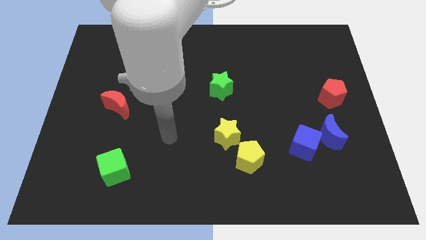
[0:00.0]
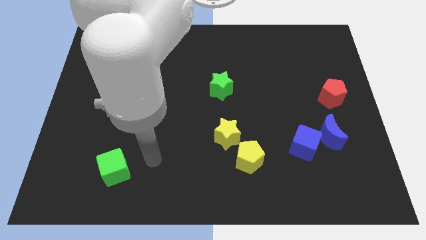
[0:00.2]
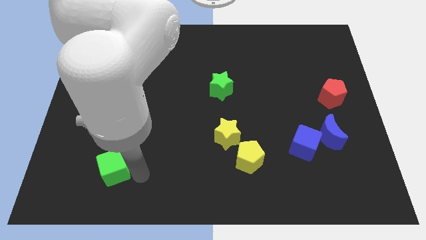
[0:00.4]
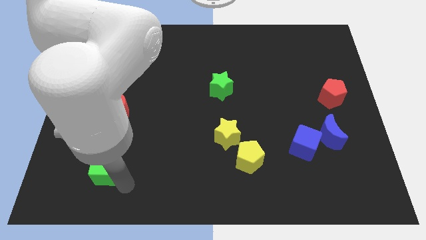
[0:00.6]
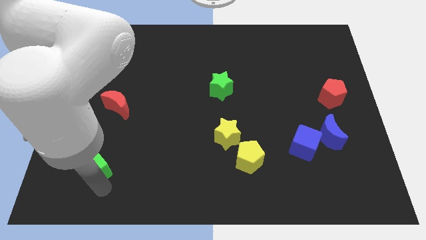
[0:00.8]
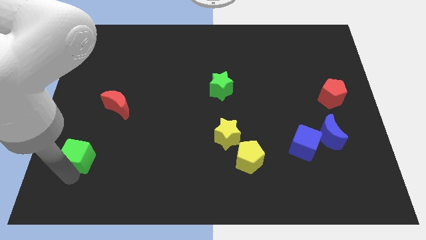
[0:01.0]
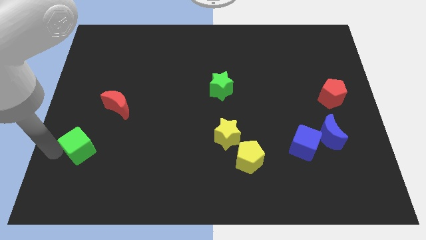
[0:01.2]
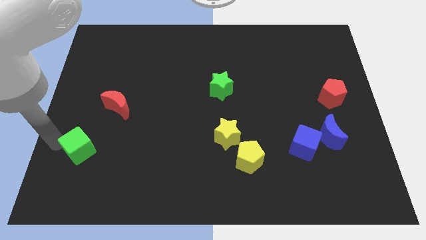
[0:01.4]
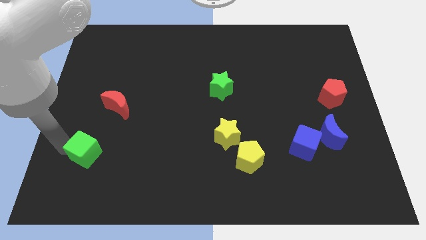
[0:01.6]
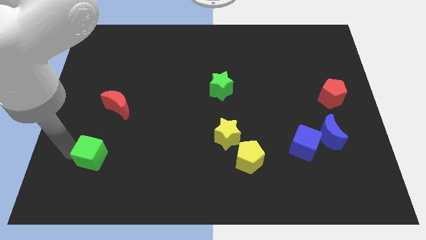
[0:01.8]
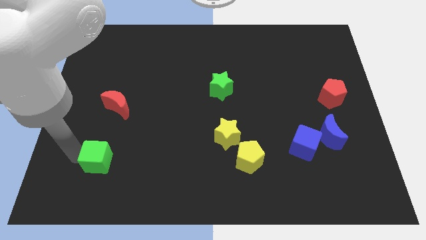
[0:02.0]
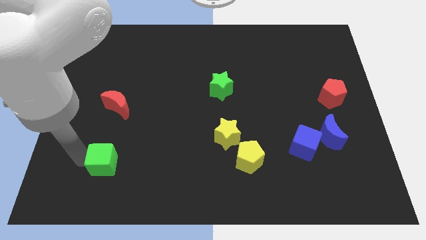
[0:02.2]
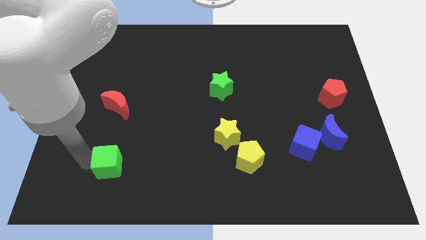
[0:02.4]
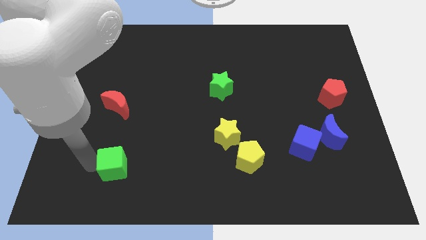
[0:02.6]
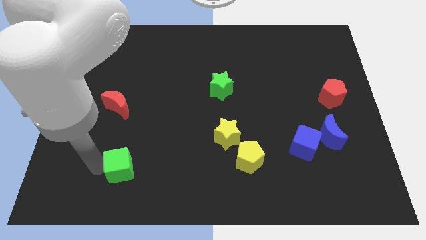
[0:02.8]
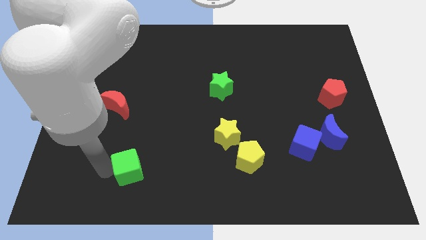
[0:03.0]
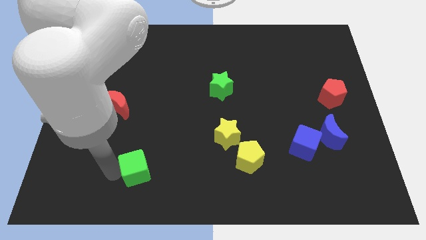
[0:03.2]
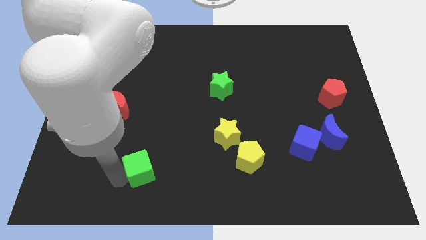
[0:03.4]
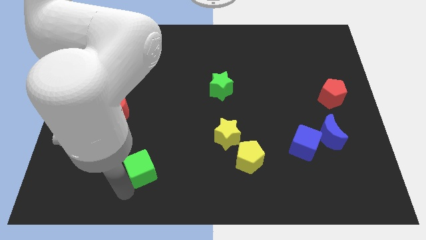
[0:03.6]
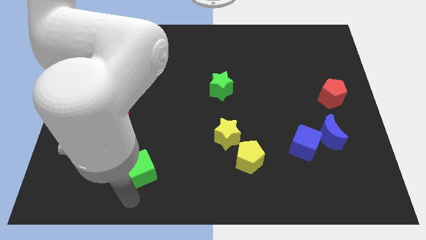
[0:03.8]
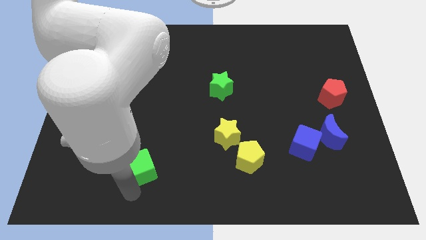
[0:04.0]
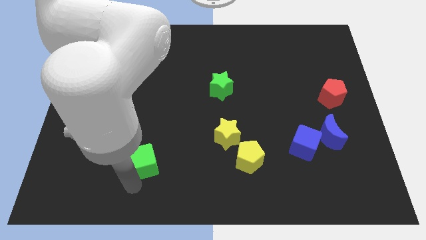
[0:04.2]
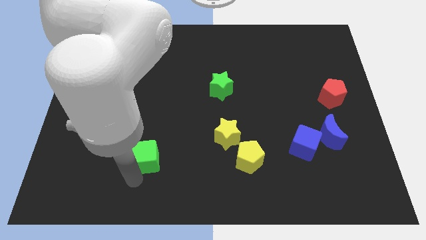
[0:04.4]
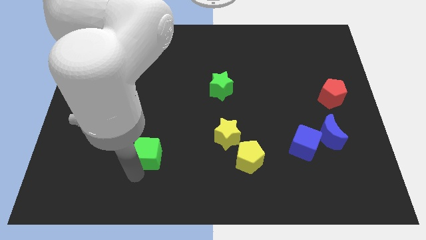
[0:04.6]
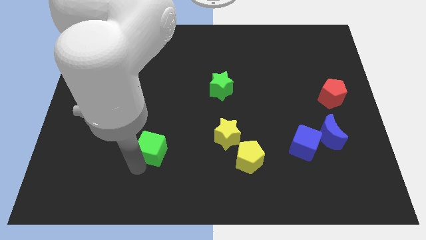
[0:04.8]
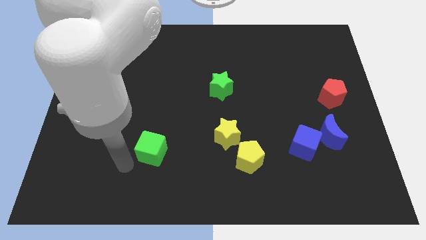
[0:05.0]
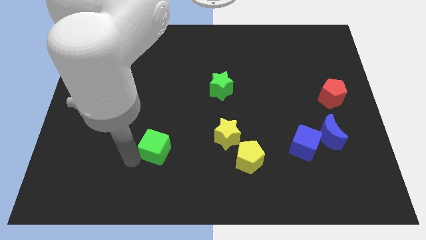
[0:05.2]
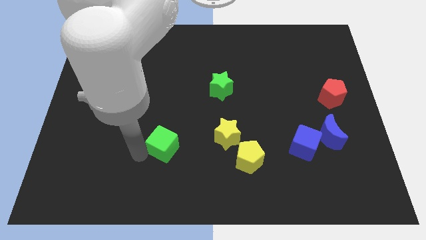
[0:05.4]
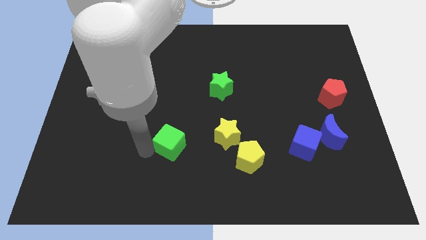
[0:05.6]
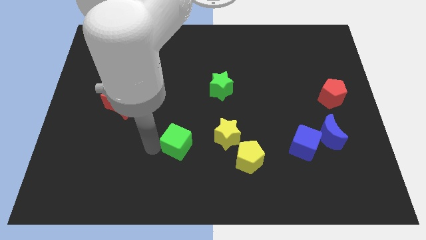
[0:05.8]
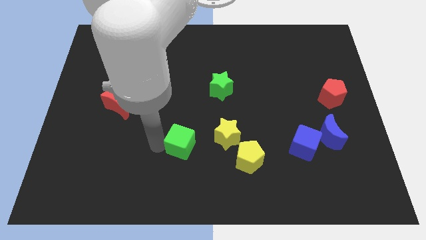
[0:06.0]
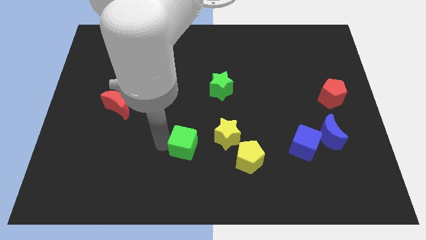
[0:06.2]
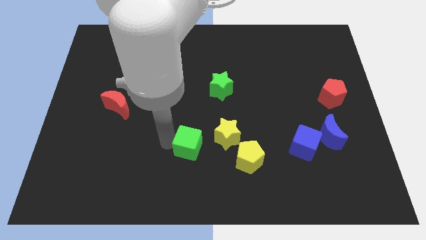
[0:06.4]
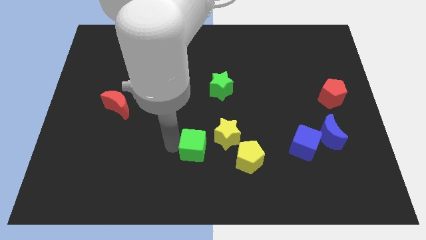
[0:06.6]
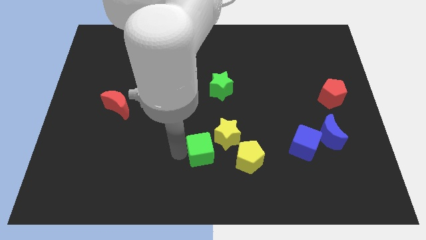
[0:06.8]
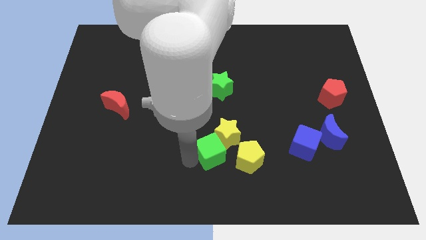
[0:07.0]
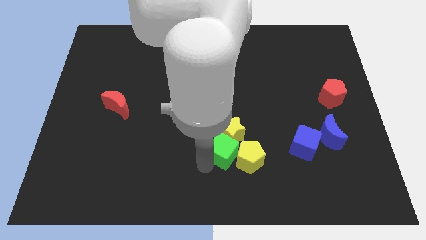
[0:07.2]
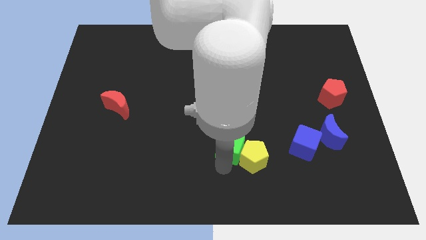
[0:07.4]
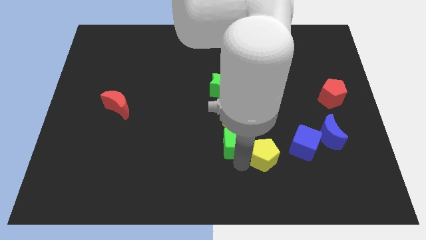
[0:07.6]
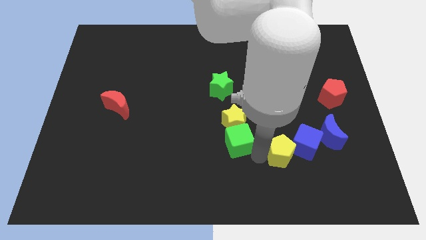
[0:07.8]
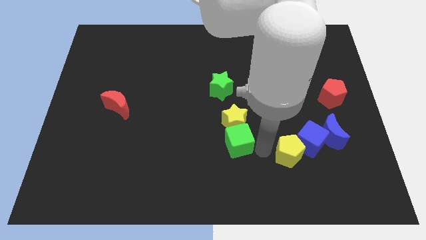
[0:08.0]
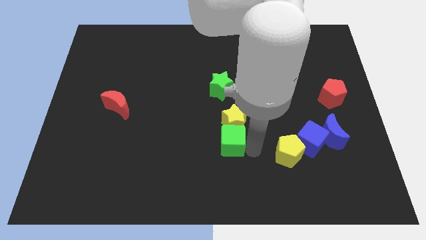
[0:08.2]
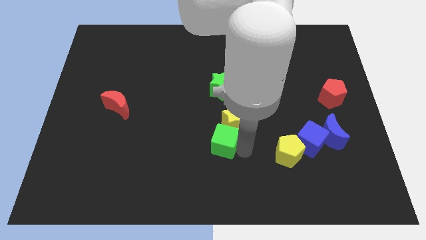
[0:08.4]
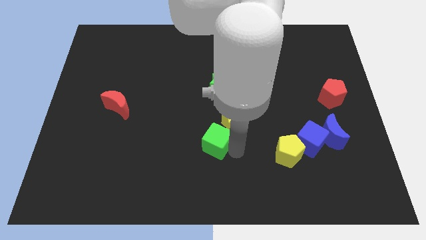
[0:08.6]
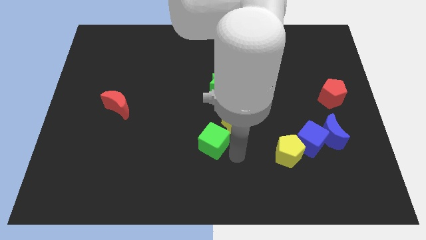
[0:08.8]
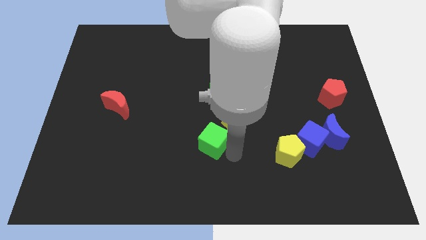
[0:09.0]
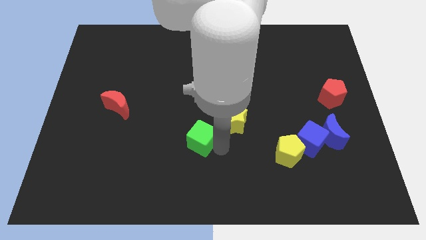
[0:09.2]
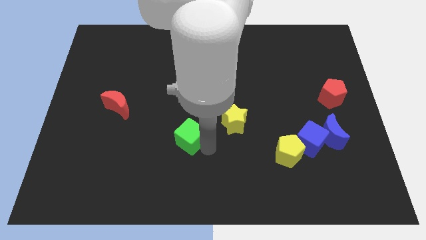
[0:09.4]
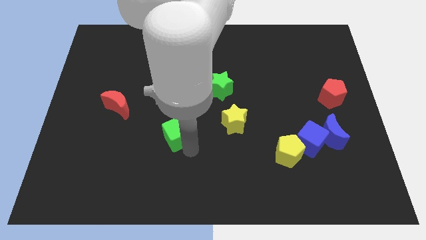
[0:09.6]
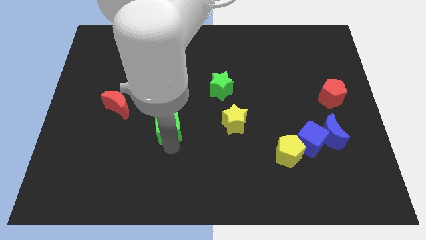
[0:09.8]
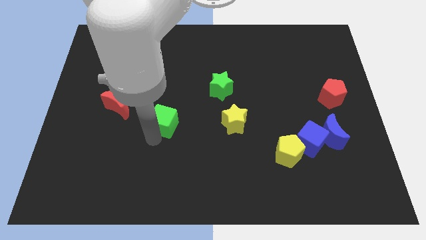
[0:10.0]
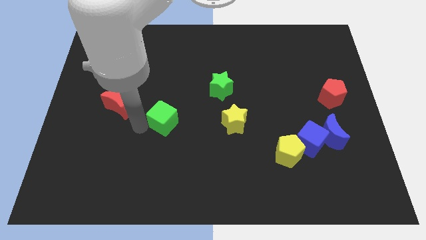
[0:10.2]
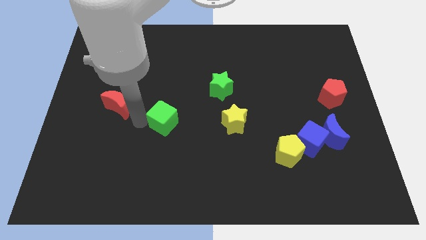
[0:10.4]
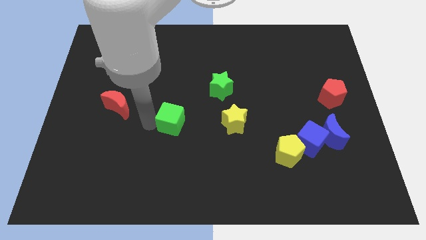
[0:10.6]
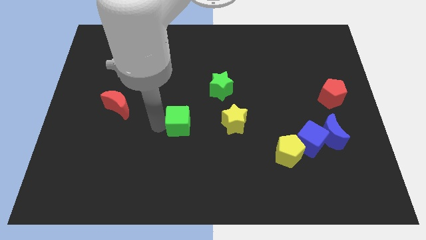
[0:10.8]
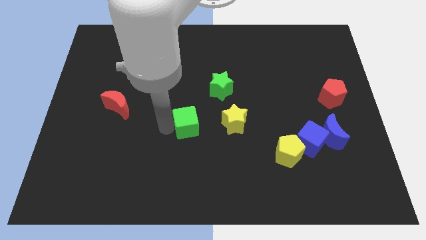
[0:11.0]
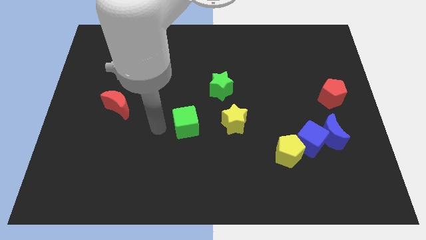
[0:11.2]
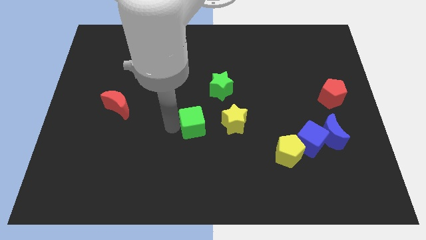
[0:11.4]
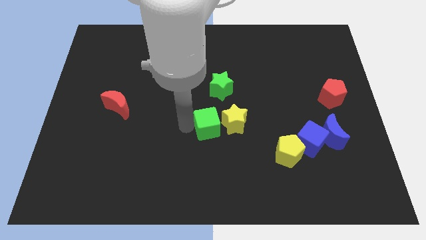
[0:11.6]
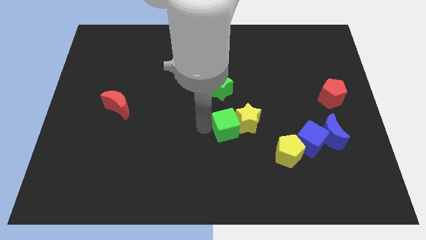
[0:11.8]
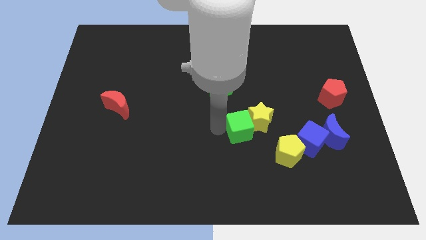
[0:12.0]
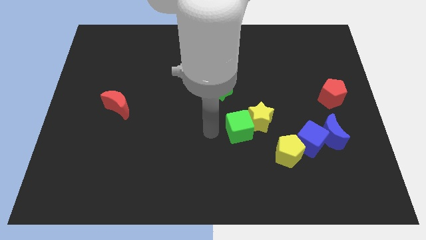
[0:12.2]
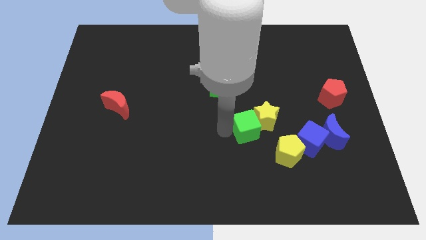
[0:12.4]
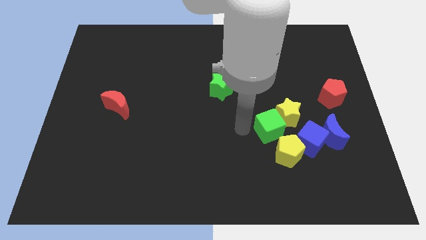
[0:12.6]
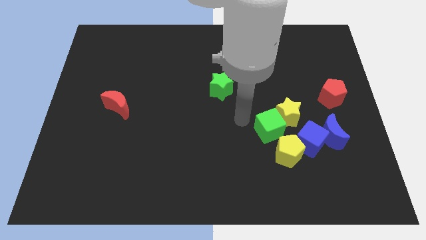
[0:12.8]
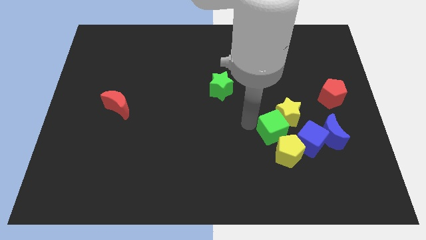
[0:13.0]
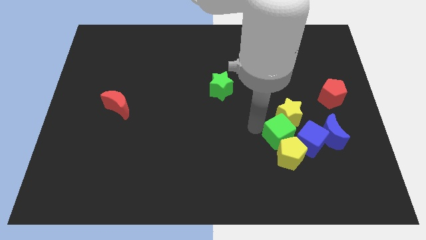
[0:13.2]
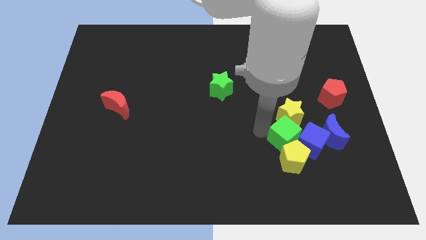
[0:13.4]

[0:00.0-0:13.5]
put the green cube next to the blue cube

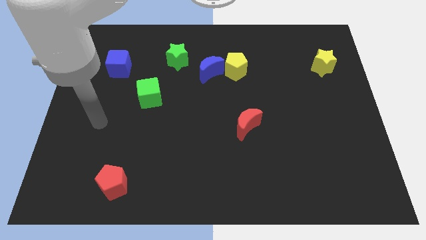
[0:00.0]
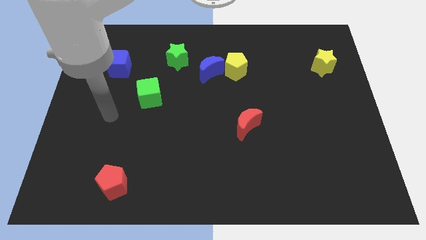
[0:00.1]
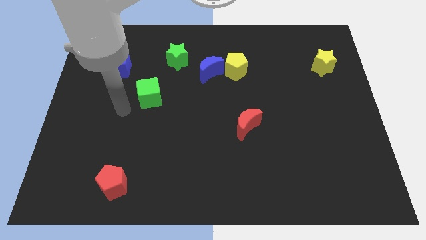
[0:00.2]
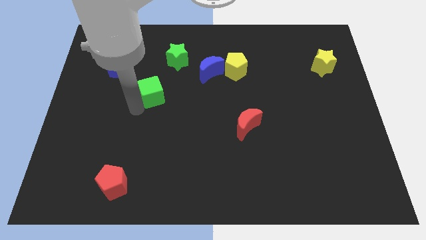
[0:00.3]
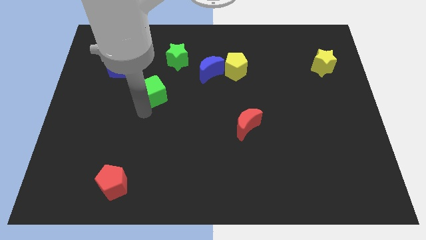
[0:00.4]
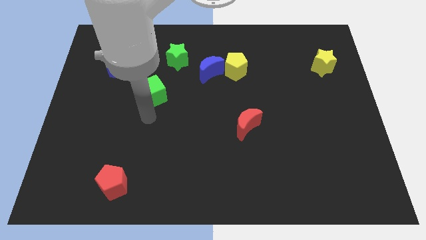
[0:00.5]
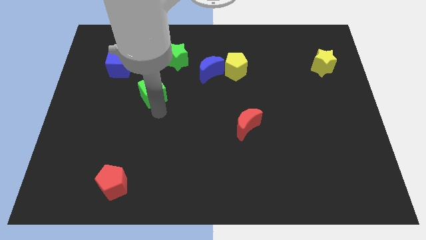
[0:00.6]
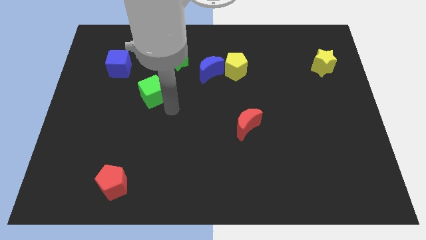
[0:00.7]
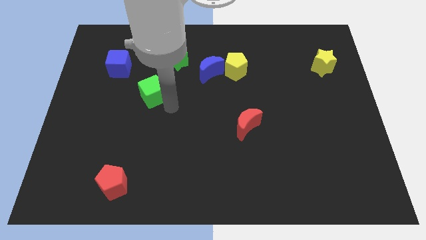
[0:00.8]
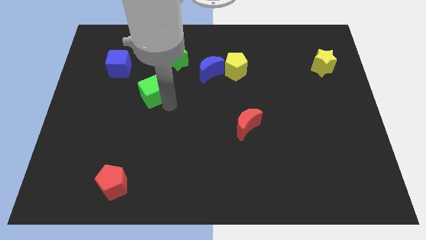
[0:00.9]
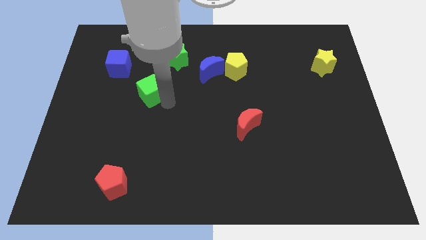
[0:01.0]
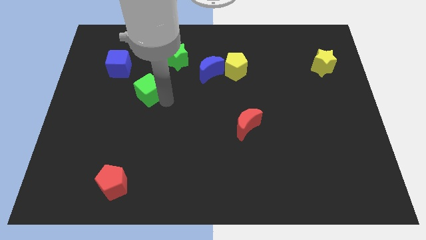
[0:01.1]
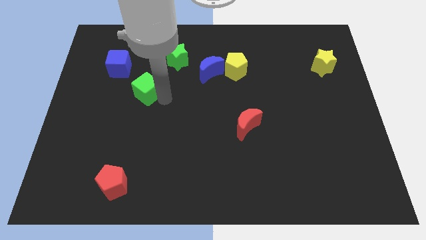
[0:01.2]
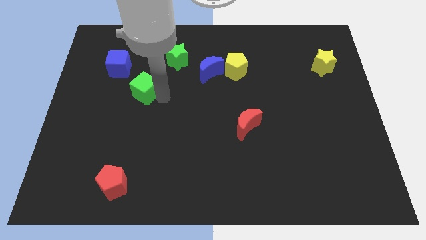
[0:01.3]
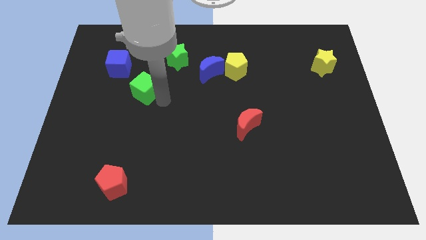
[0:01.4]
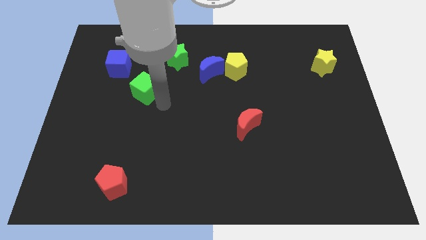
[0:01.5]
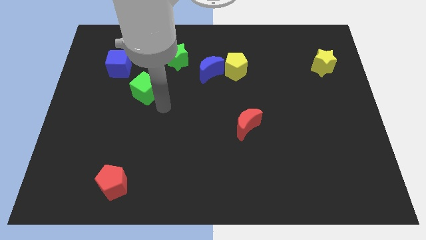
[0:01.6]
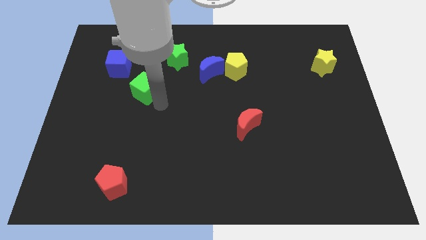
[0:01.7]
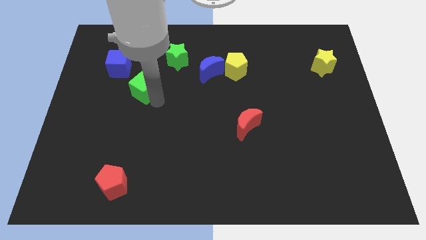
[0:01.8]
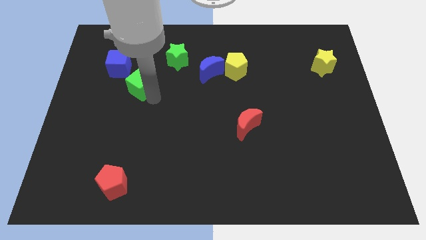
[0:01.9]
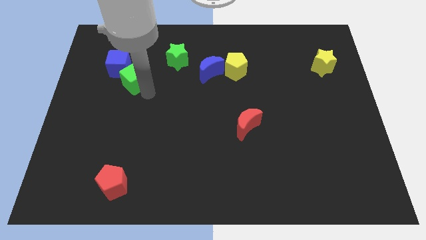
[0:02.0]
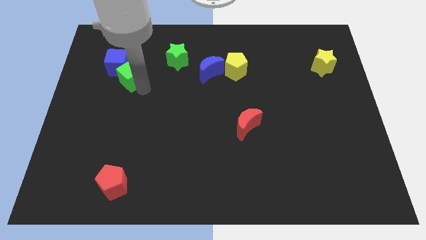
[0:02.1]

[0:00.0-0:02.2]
put the green cube to the blue cube
